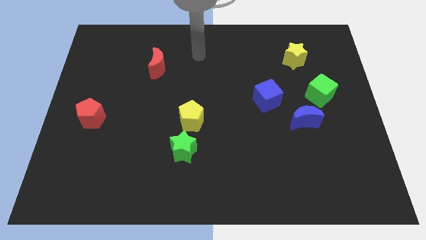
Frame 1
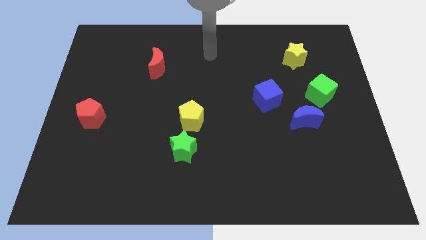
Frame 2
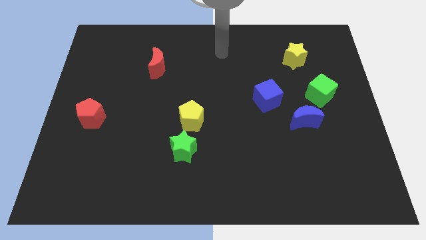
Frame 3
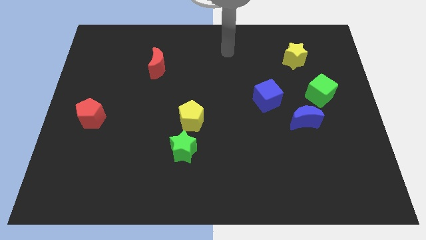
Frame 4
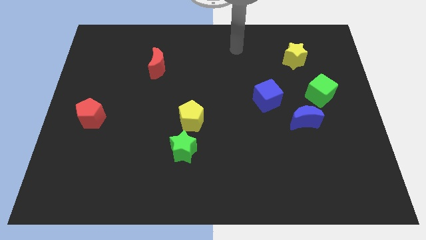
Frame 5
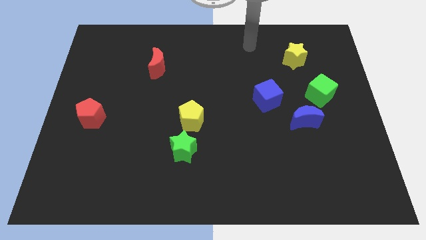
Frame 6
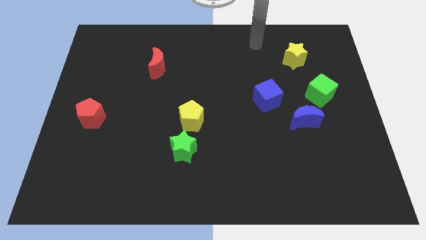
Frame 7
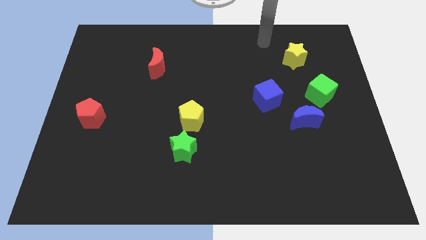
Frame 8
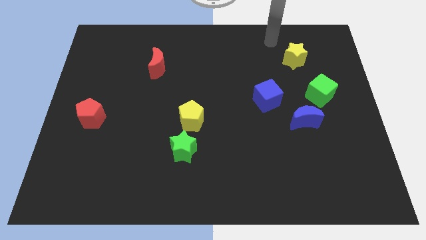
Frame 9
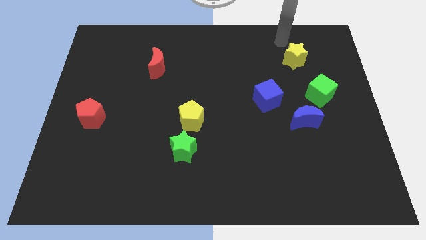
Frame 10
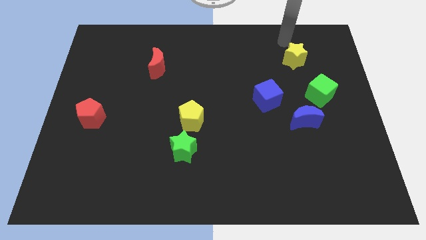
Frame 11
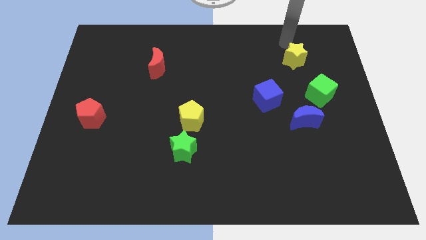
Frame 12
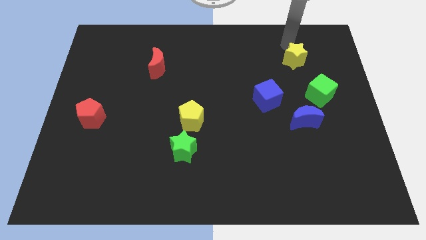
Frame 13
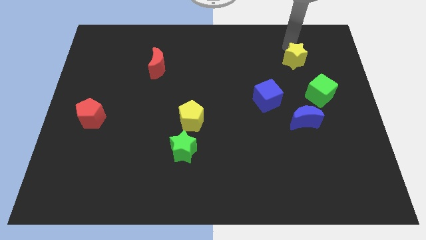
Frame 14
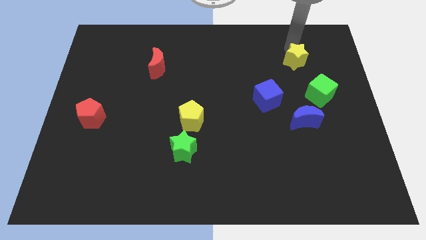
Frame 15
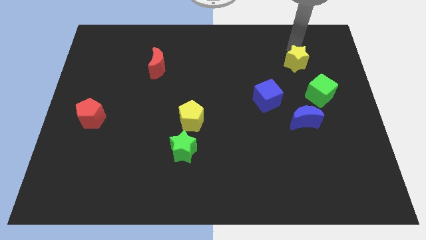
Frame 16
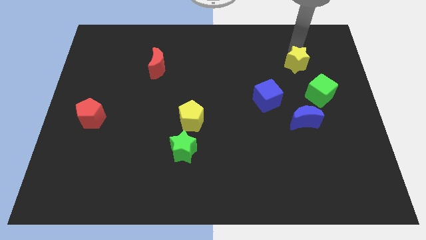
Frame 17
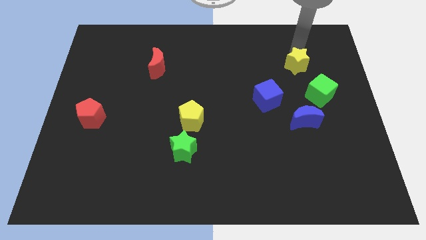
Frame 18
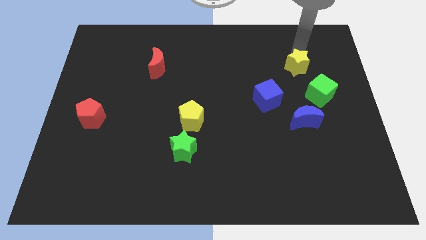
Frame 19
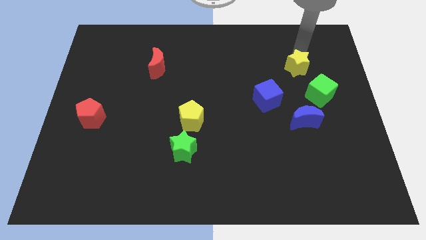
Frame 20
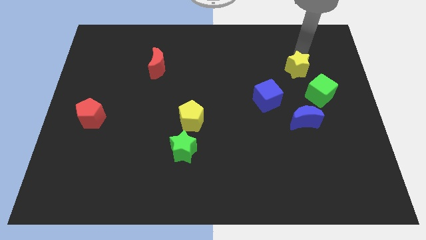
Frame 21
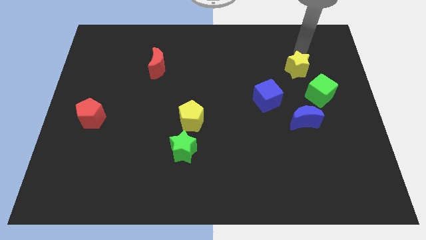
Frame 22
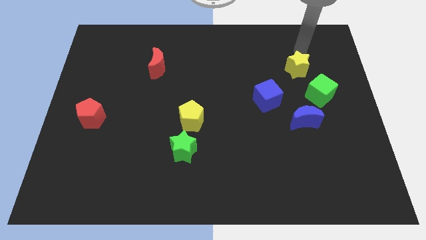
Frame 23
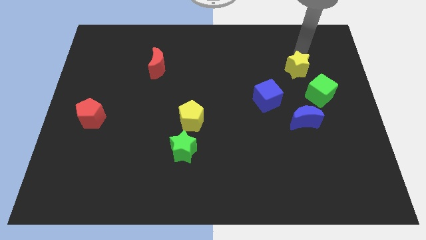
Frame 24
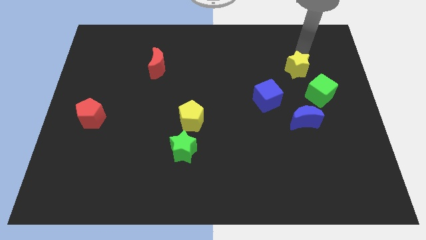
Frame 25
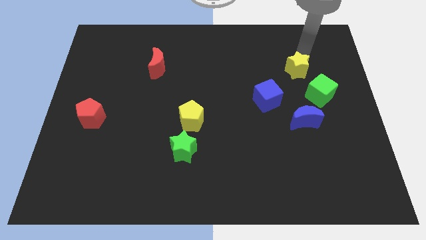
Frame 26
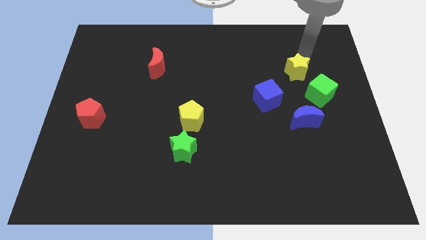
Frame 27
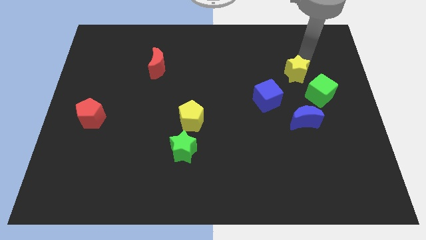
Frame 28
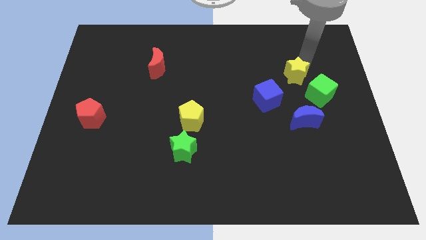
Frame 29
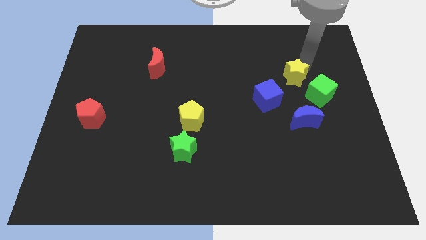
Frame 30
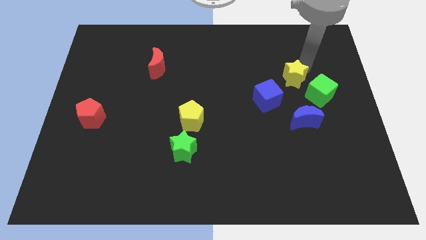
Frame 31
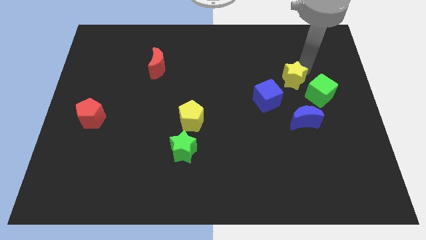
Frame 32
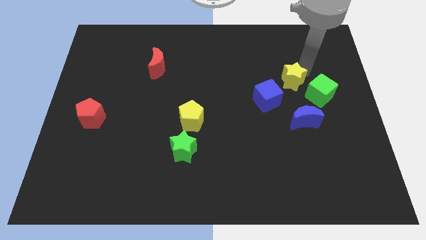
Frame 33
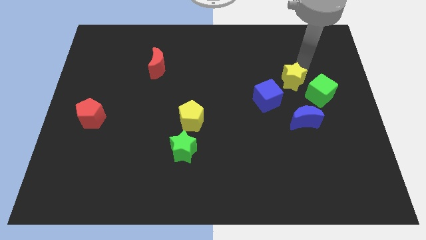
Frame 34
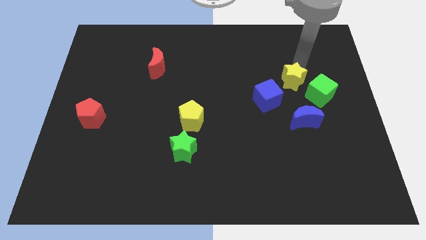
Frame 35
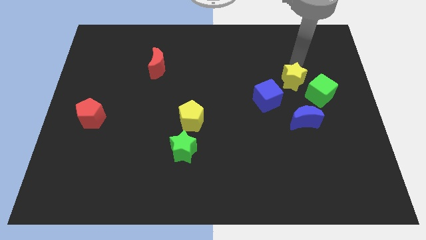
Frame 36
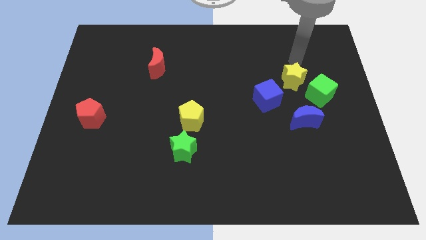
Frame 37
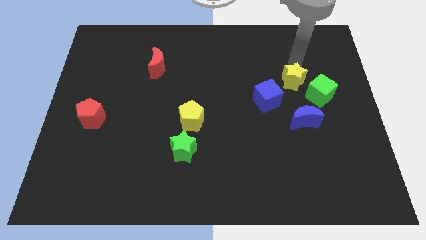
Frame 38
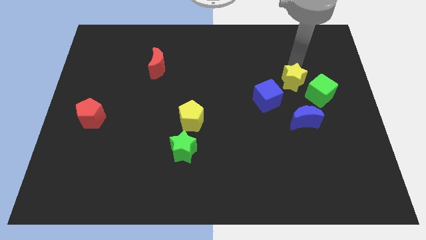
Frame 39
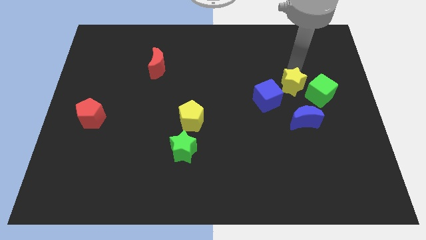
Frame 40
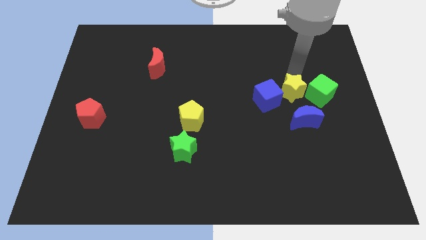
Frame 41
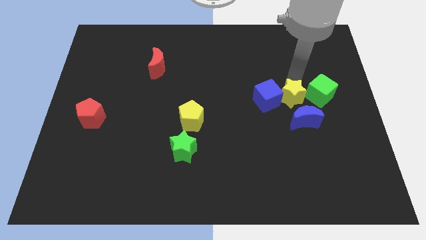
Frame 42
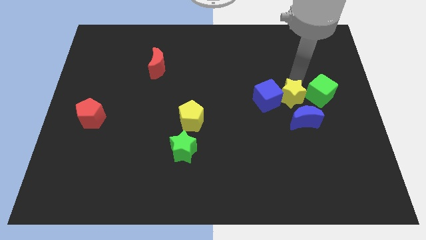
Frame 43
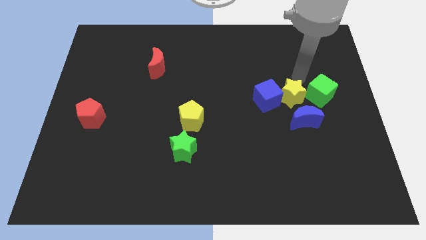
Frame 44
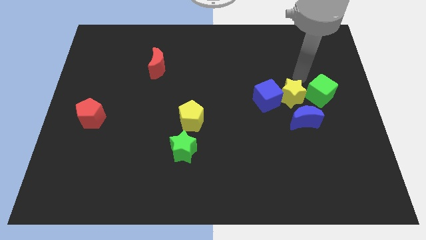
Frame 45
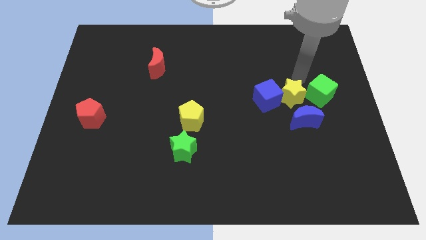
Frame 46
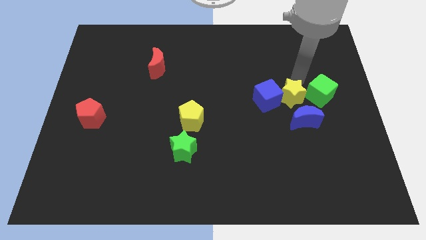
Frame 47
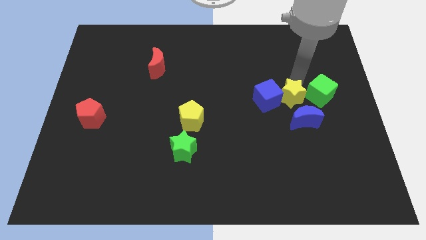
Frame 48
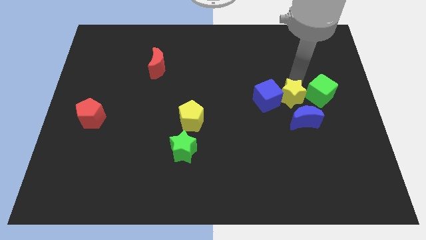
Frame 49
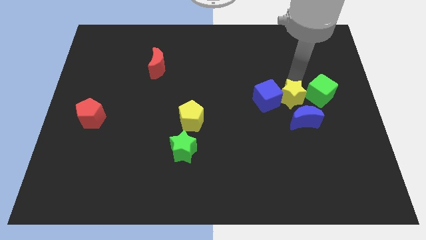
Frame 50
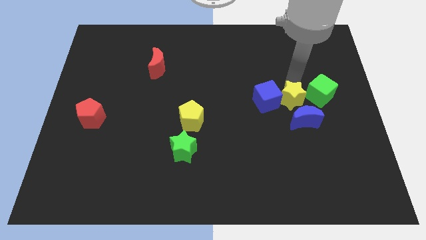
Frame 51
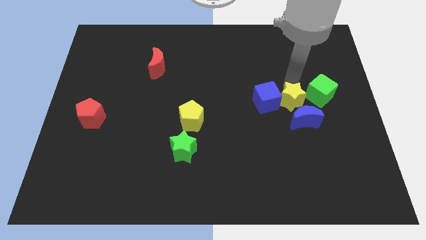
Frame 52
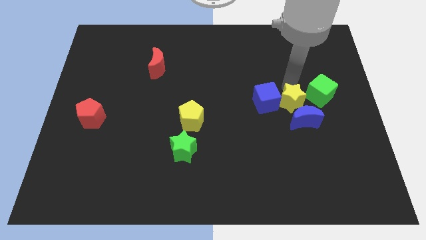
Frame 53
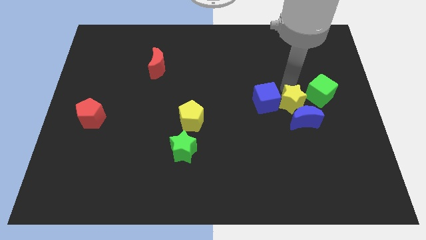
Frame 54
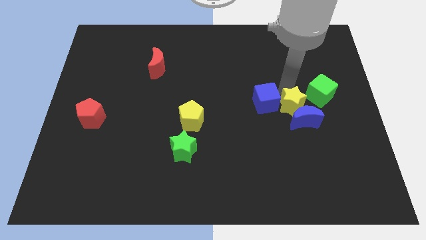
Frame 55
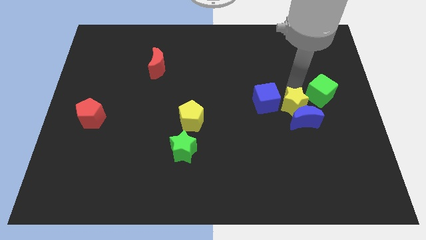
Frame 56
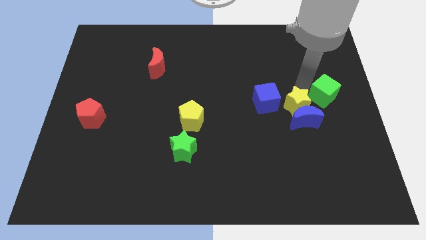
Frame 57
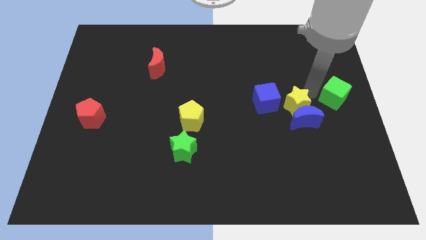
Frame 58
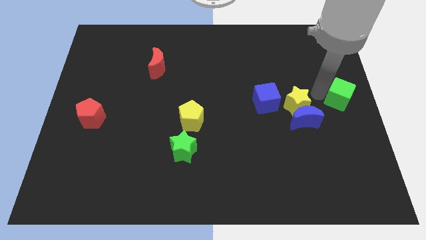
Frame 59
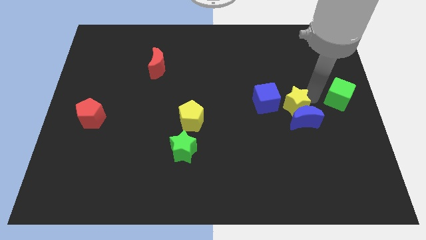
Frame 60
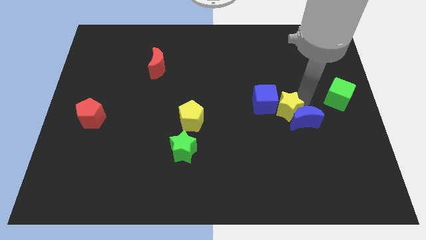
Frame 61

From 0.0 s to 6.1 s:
push the yellow star just left of the blue moon

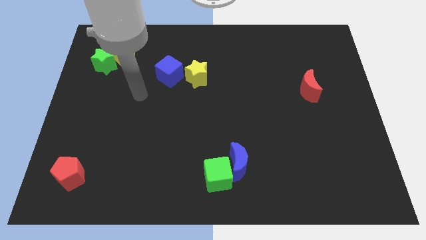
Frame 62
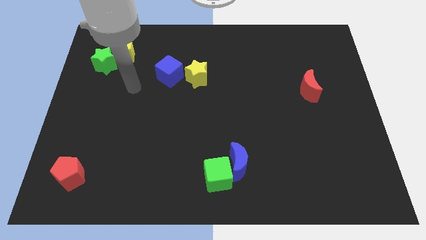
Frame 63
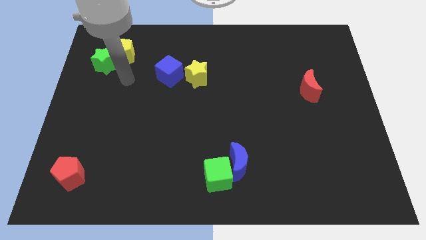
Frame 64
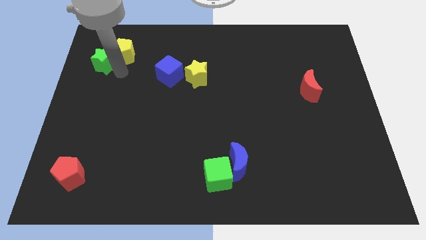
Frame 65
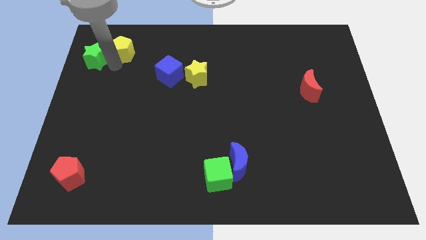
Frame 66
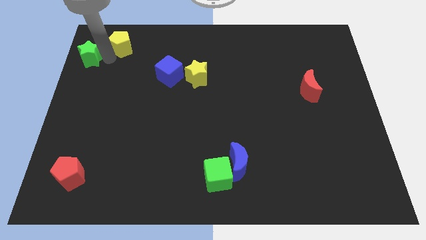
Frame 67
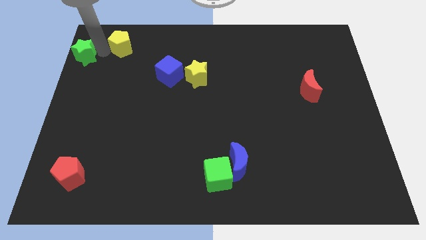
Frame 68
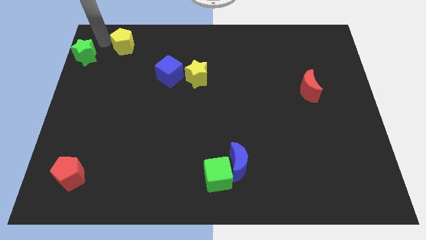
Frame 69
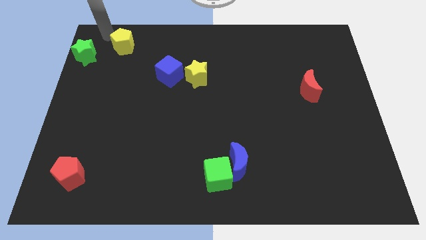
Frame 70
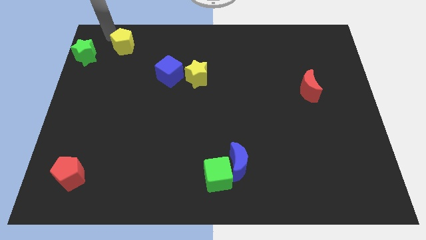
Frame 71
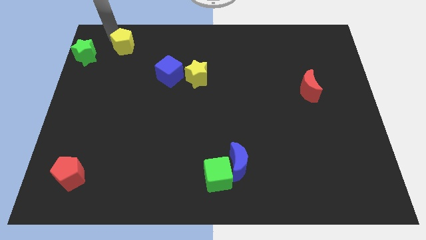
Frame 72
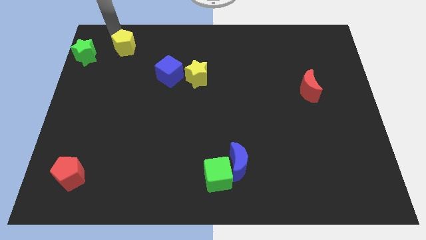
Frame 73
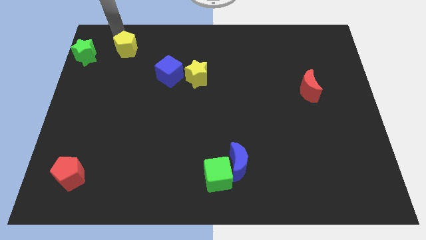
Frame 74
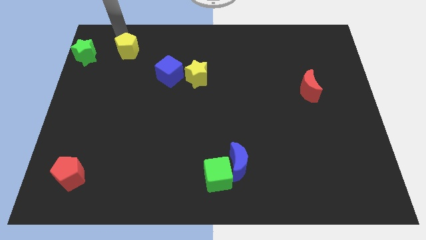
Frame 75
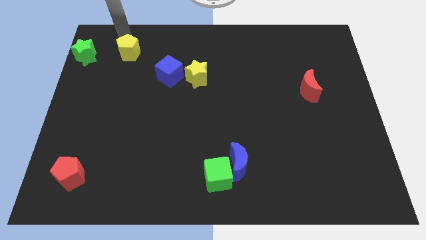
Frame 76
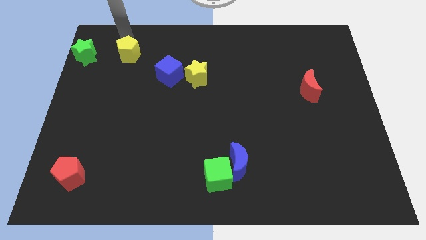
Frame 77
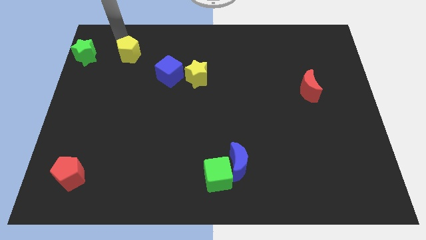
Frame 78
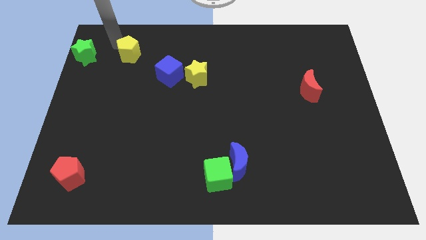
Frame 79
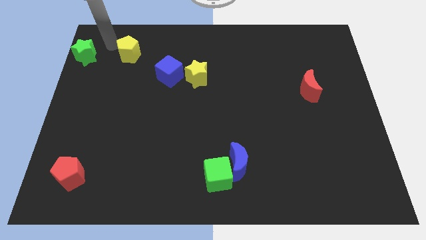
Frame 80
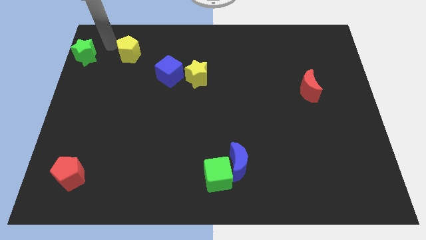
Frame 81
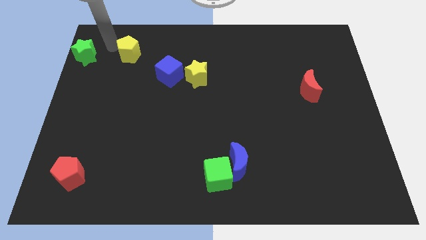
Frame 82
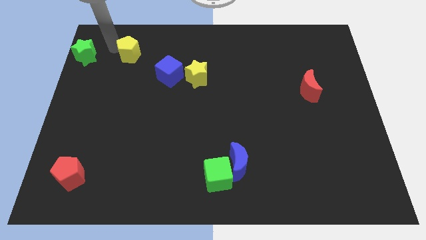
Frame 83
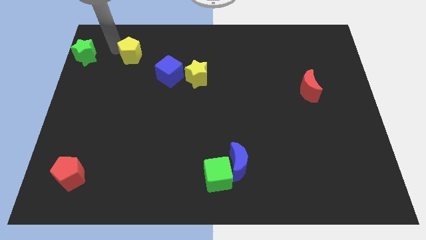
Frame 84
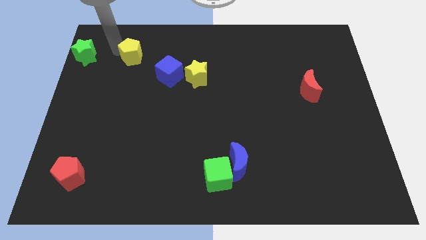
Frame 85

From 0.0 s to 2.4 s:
put the yellow pentagon to the top left side of the blue cube

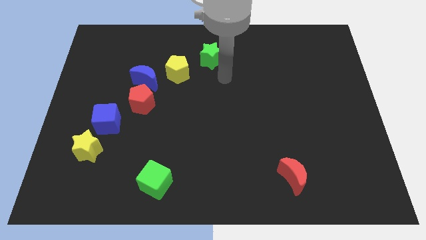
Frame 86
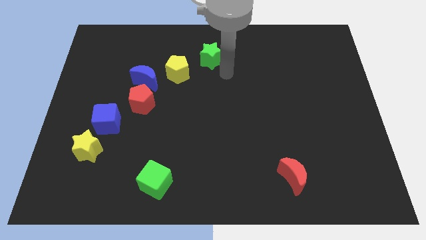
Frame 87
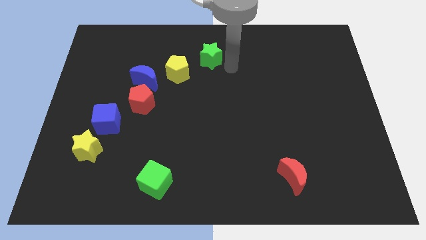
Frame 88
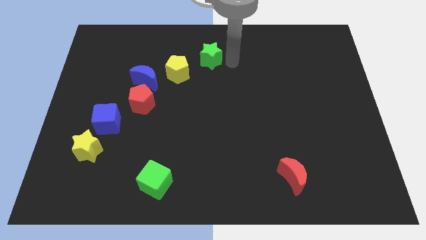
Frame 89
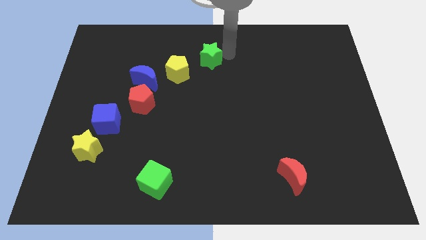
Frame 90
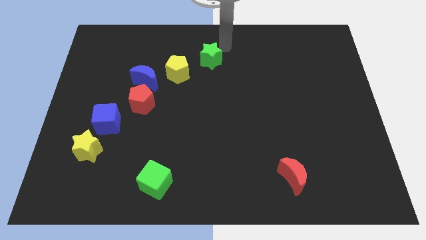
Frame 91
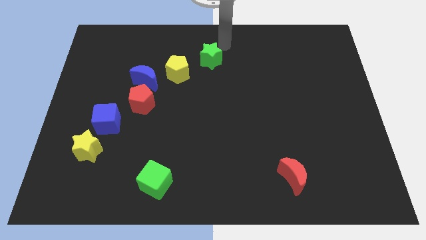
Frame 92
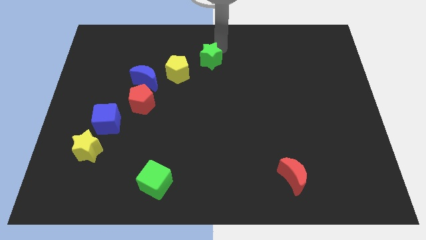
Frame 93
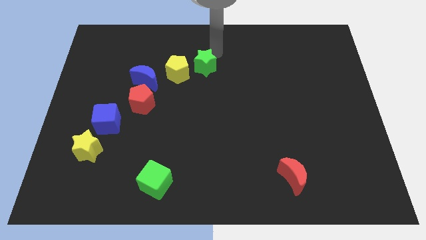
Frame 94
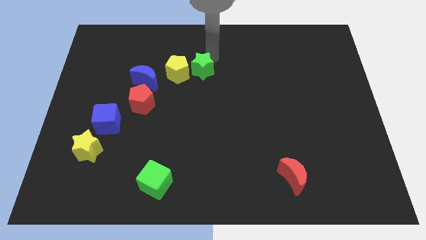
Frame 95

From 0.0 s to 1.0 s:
move the green star right of the blue moon
